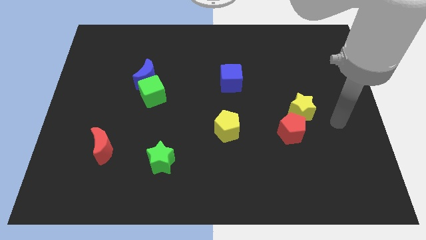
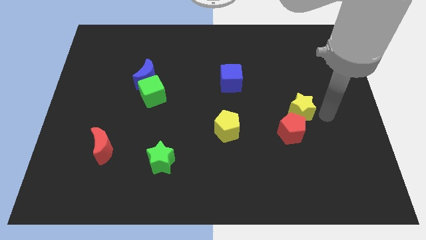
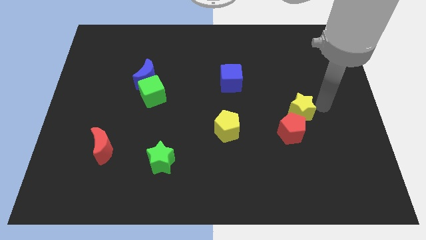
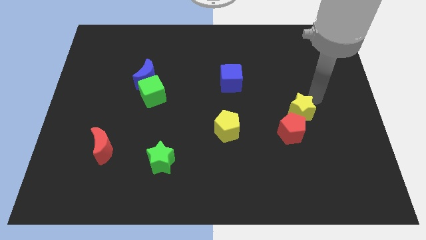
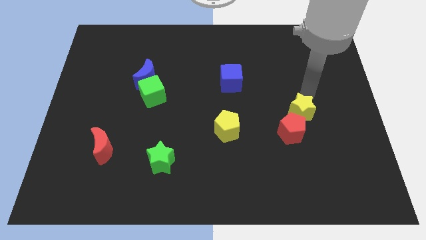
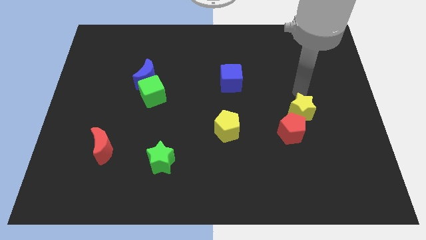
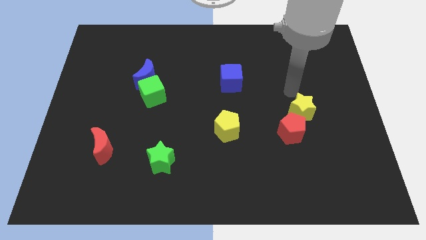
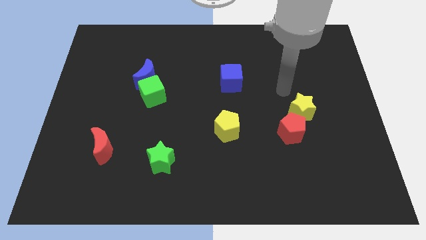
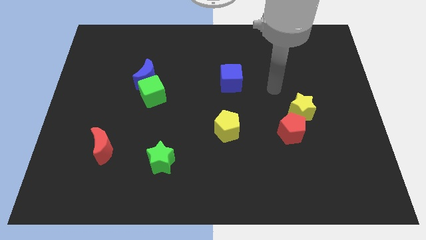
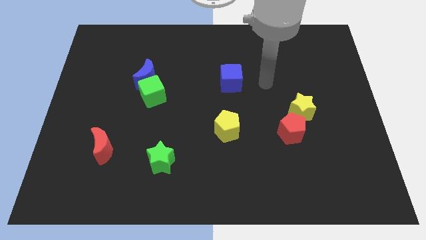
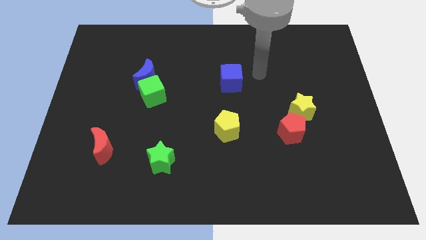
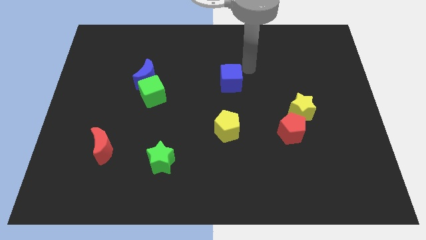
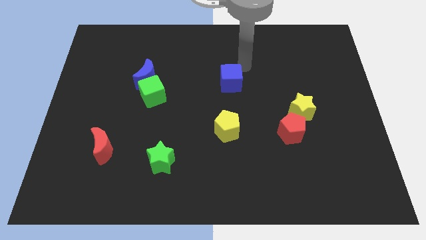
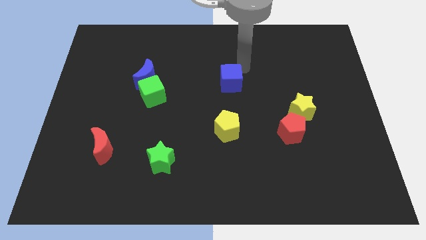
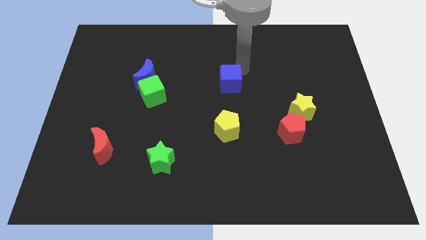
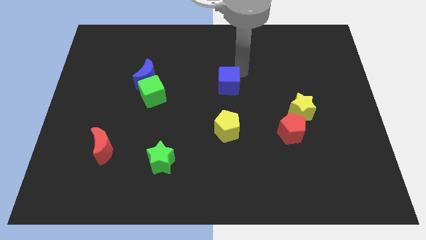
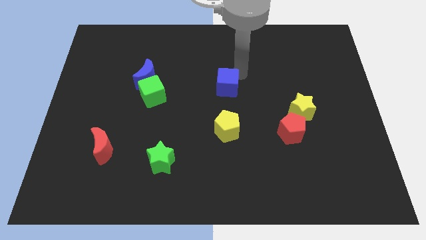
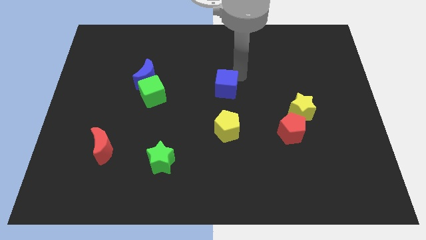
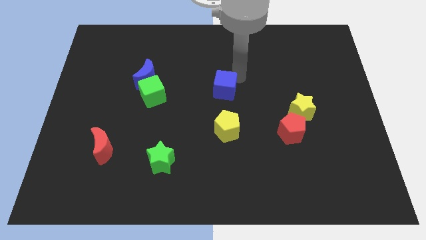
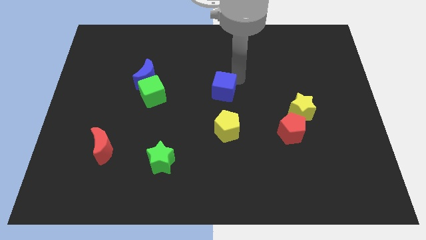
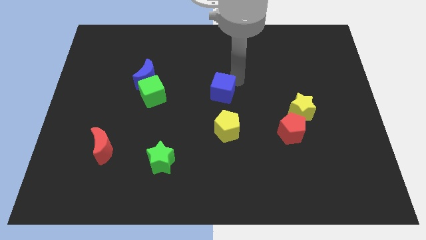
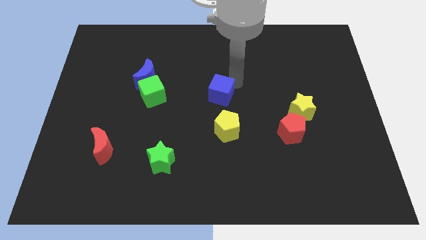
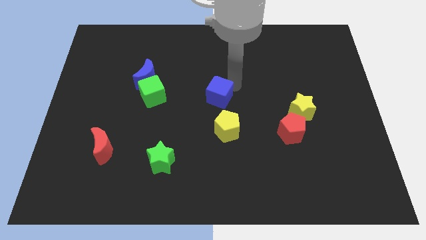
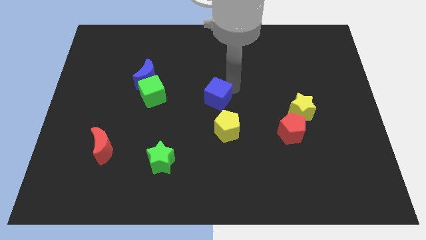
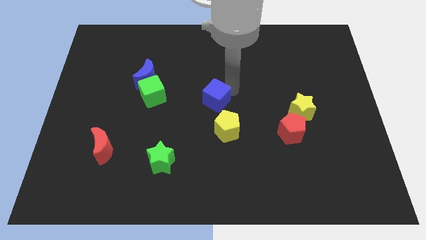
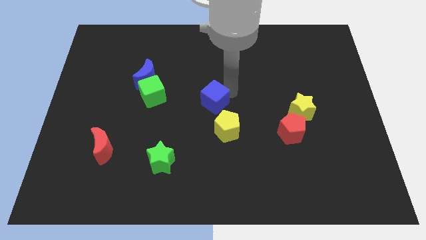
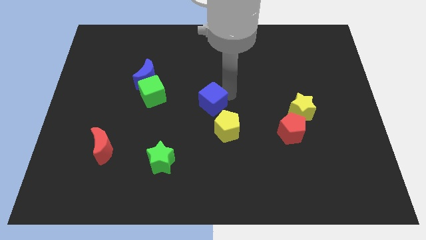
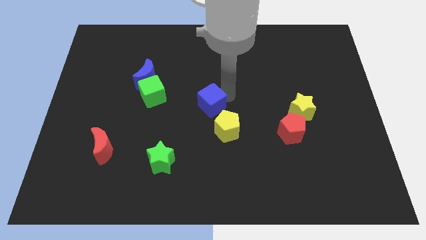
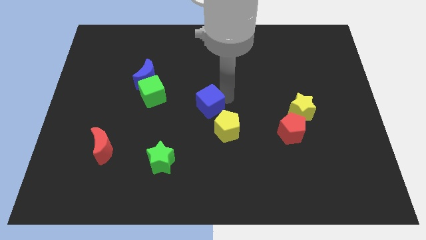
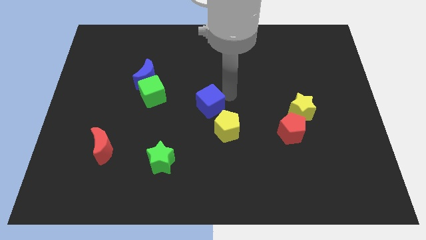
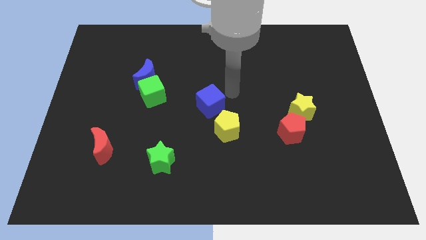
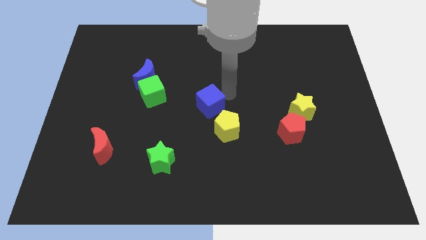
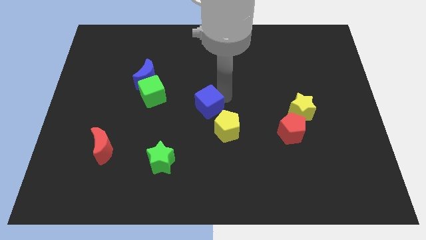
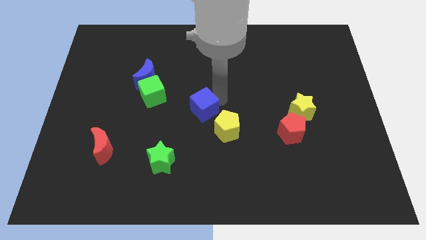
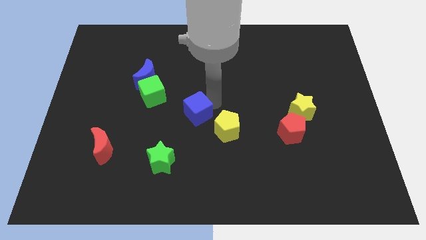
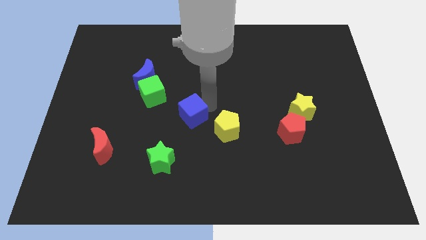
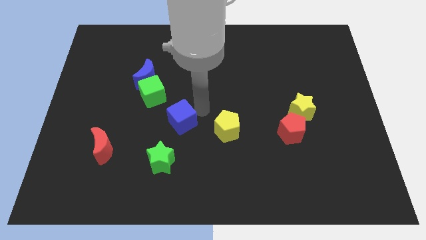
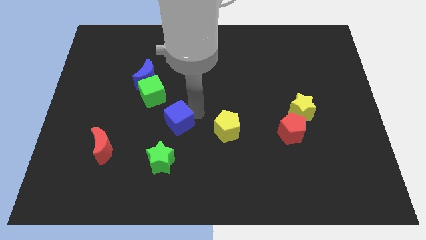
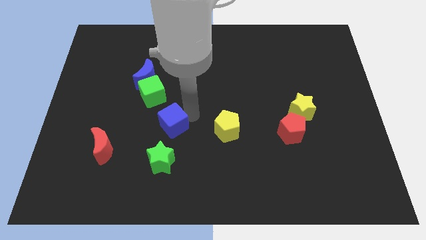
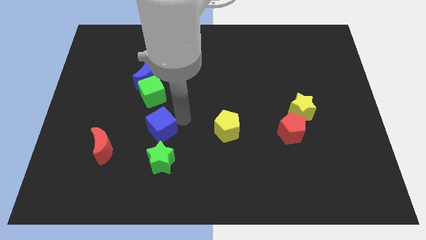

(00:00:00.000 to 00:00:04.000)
push the blue cube diagonally downwards and left

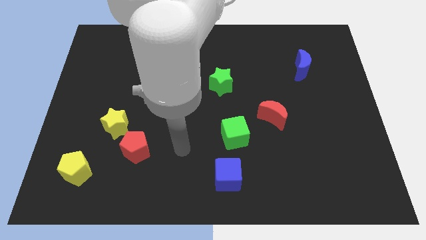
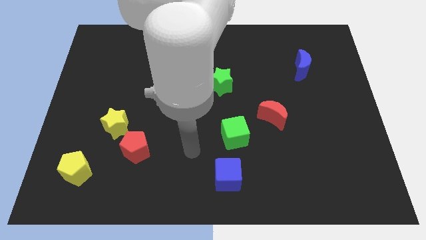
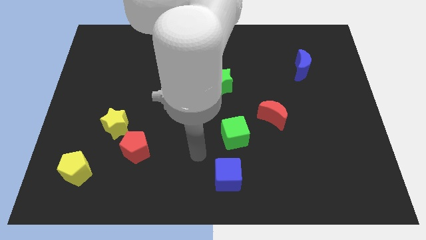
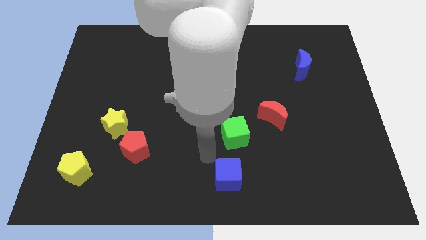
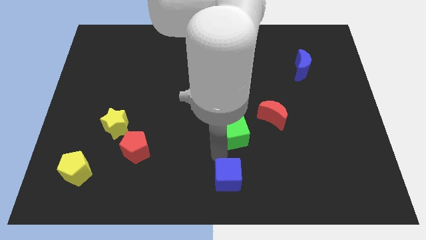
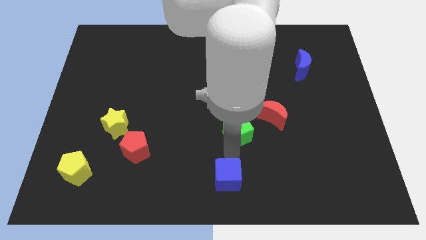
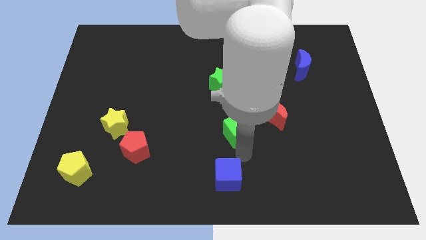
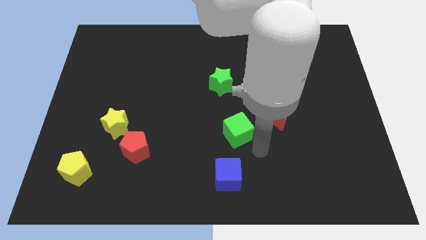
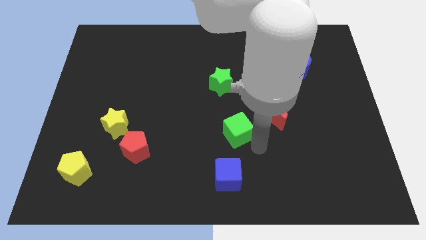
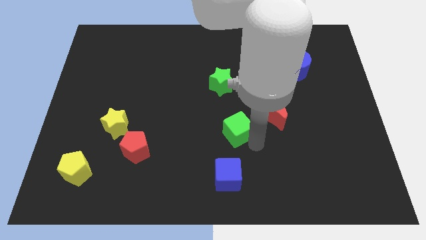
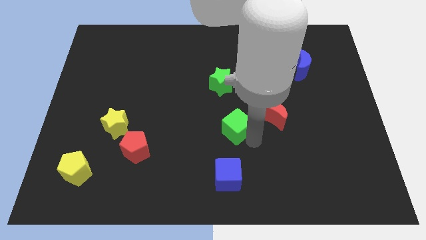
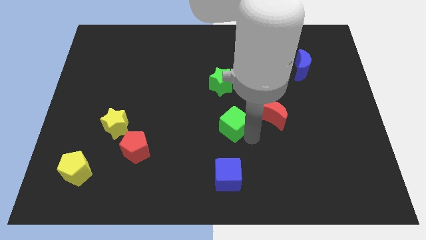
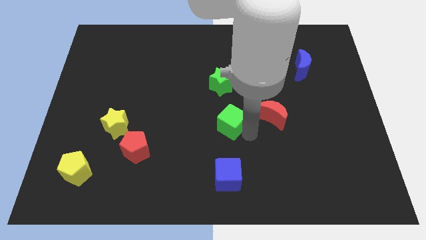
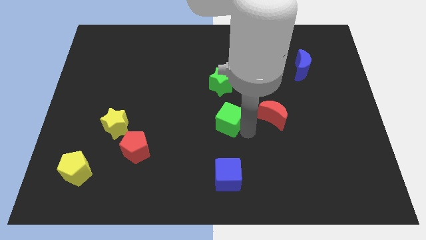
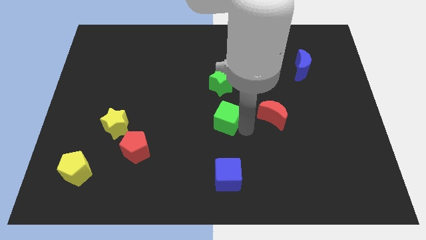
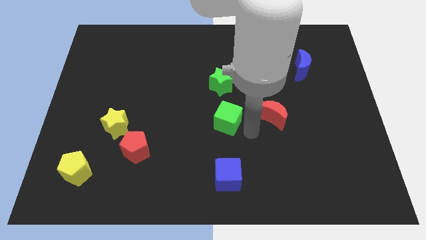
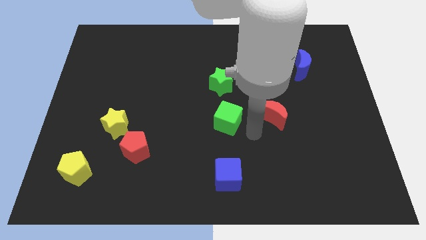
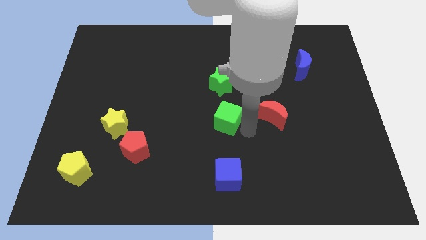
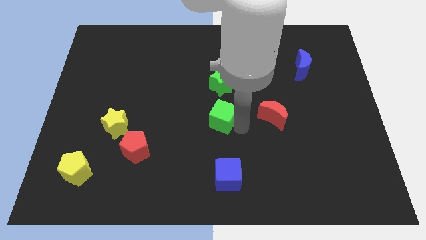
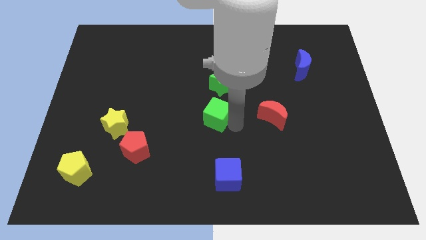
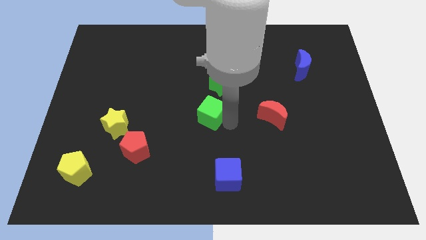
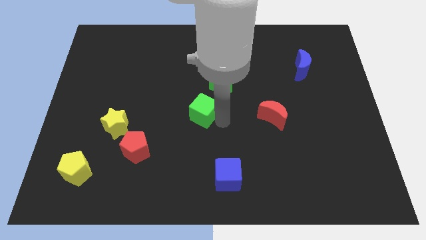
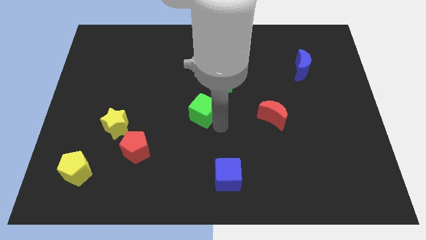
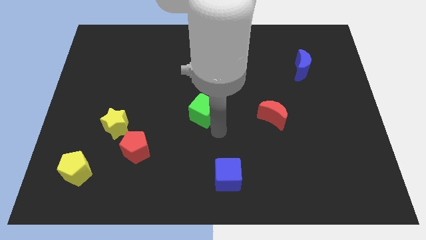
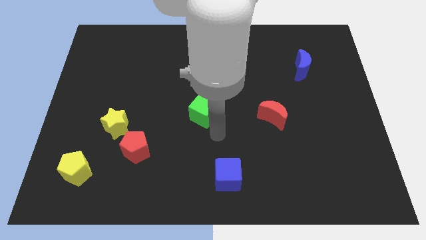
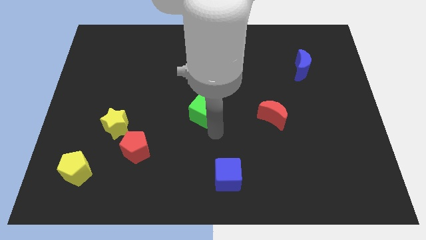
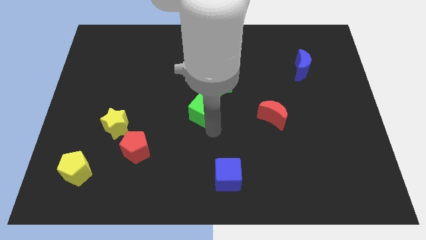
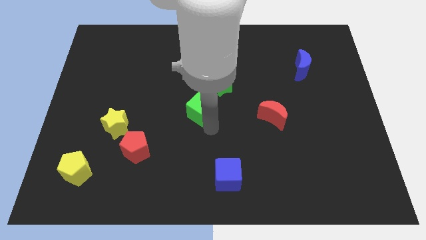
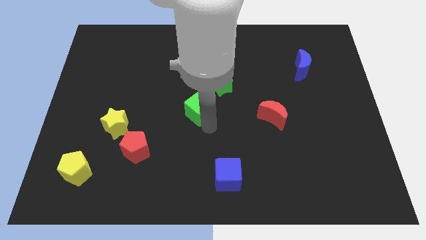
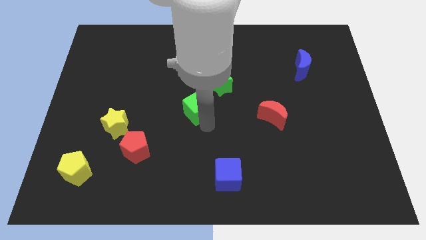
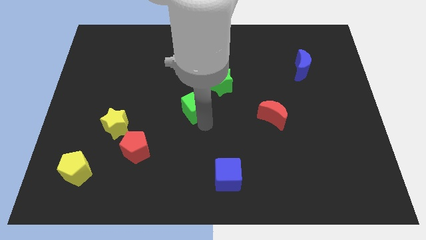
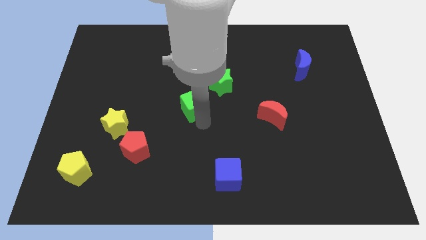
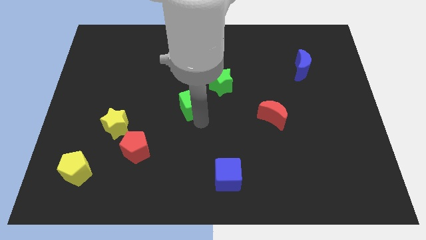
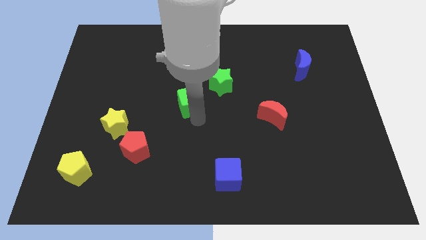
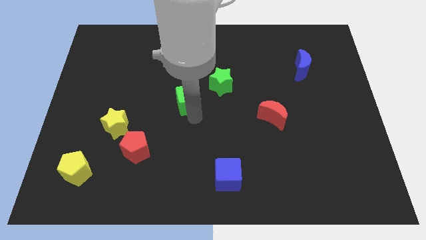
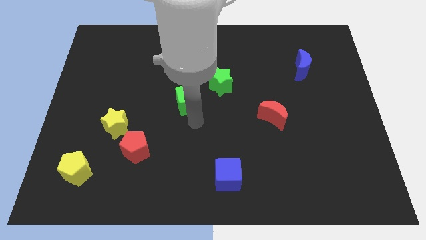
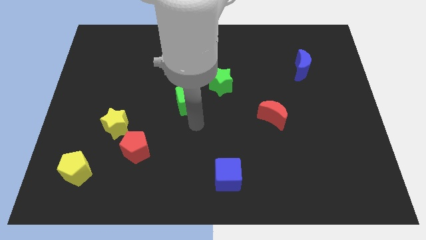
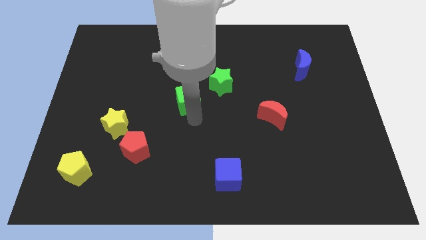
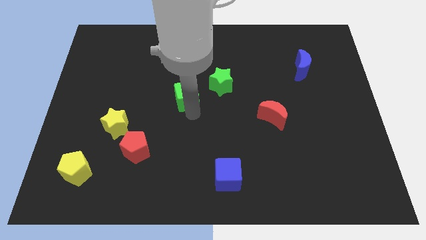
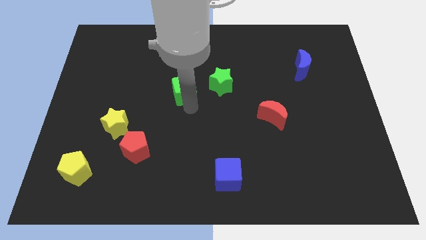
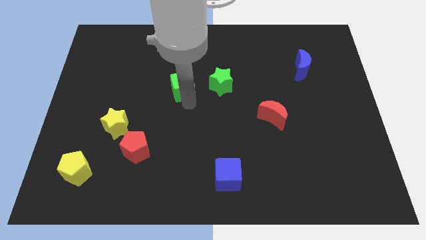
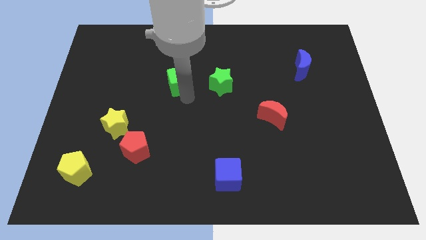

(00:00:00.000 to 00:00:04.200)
push the green cube upwards and to the left
